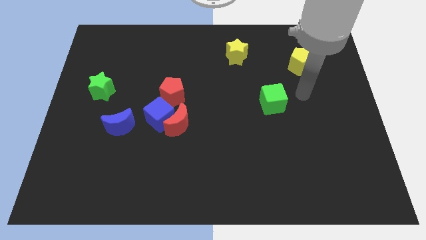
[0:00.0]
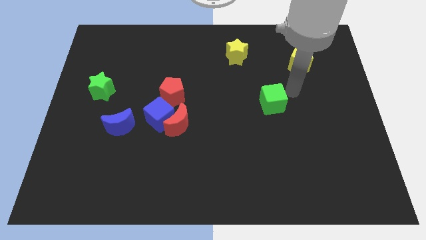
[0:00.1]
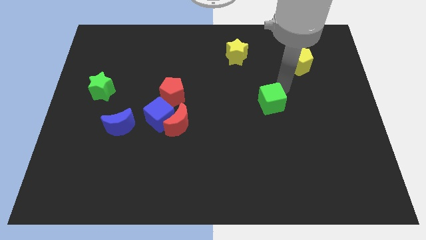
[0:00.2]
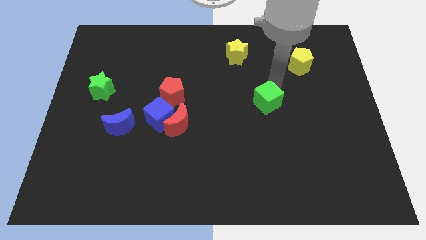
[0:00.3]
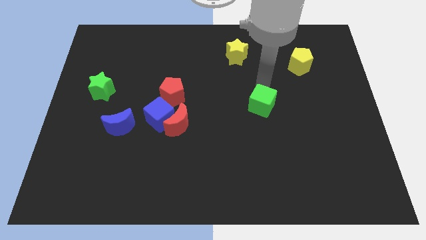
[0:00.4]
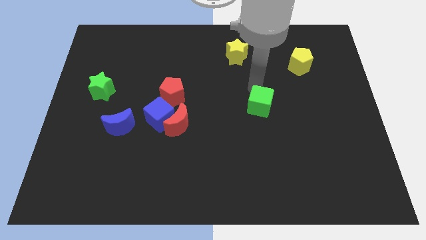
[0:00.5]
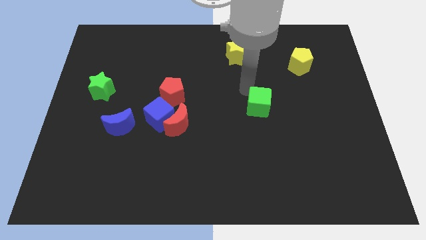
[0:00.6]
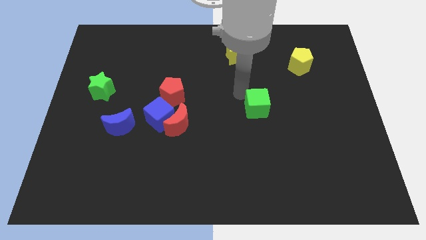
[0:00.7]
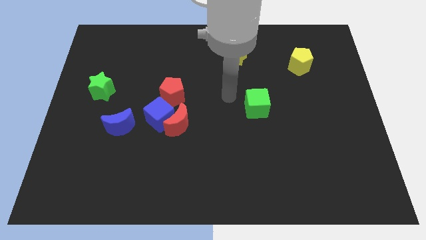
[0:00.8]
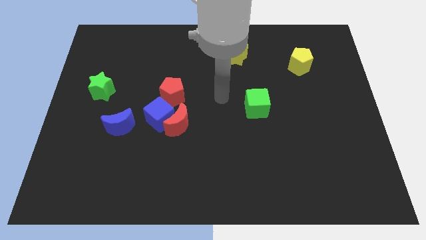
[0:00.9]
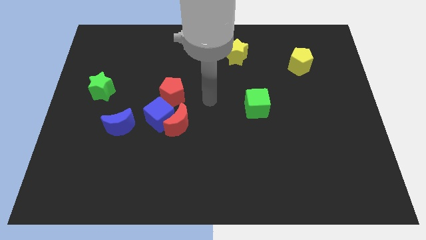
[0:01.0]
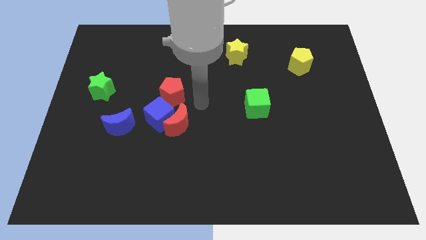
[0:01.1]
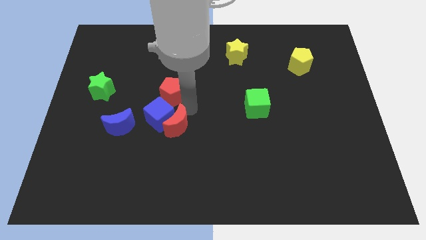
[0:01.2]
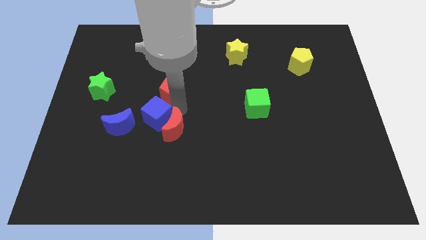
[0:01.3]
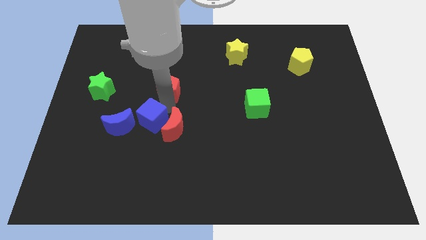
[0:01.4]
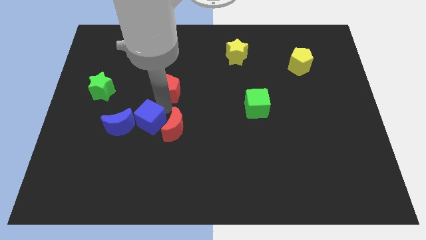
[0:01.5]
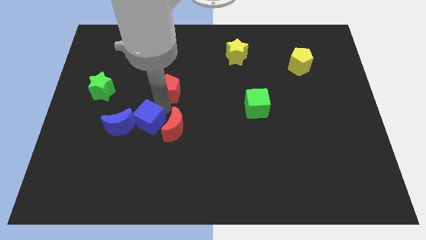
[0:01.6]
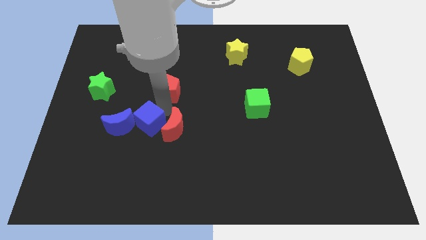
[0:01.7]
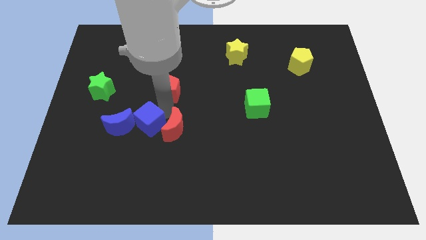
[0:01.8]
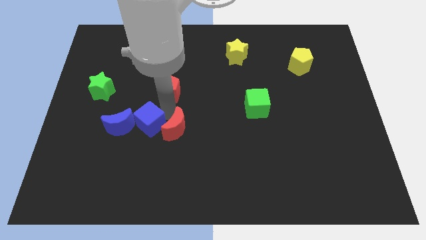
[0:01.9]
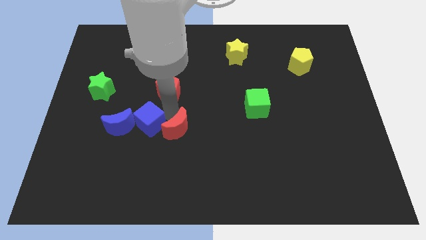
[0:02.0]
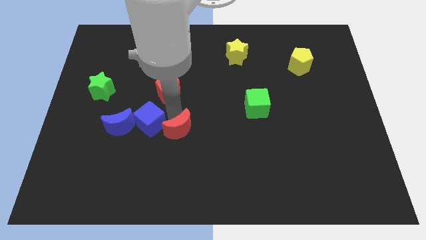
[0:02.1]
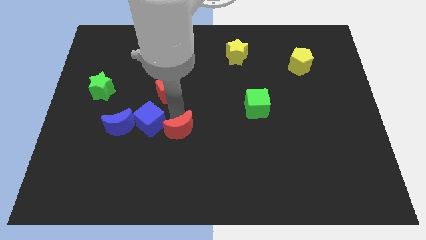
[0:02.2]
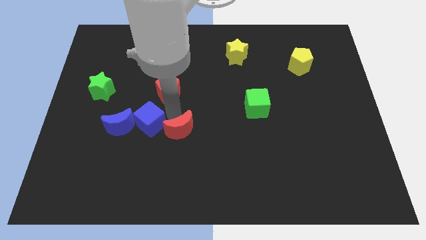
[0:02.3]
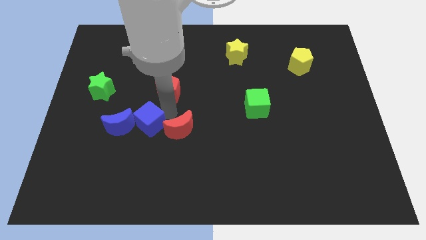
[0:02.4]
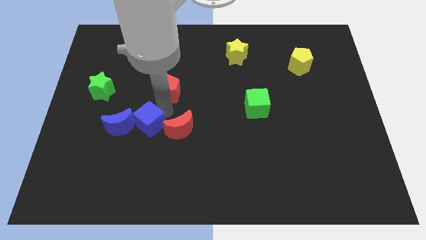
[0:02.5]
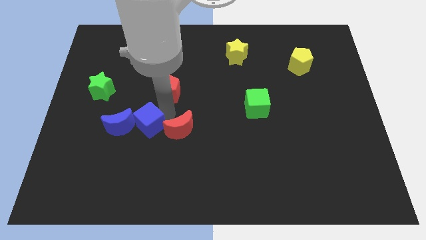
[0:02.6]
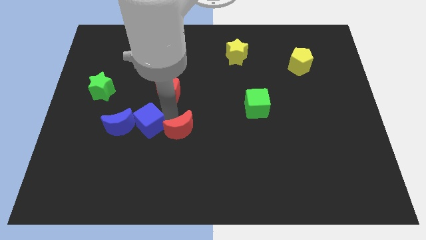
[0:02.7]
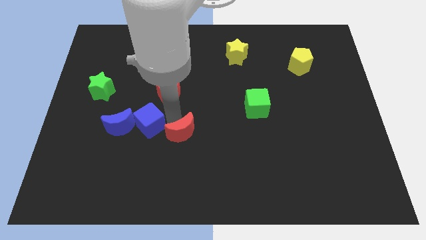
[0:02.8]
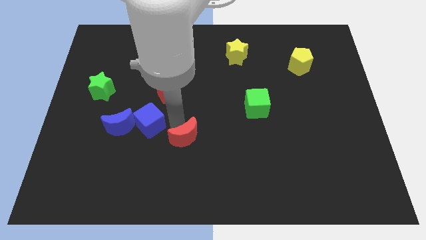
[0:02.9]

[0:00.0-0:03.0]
separate the red moon from the blue cube and red pentagon

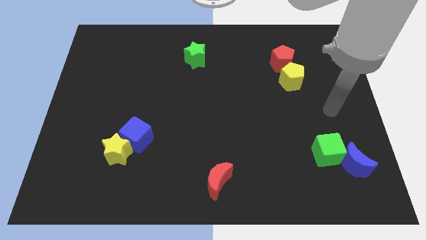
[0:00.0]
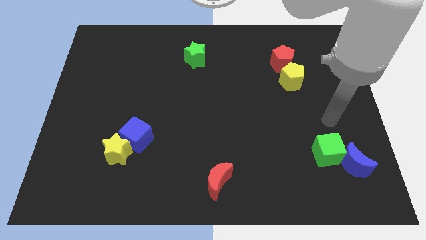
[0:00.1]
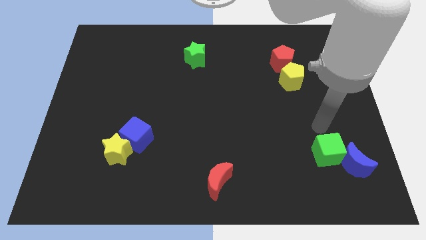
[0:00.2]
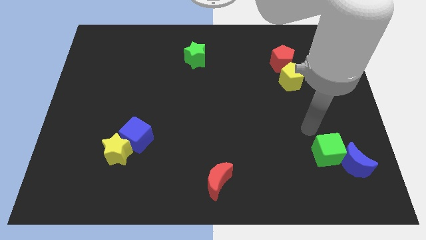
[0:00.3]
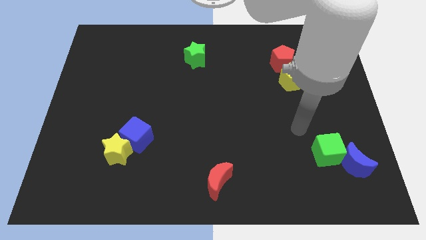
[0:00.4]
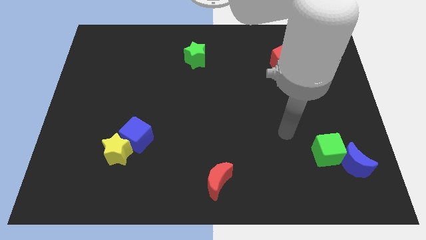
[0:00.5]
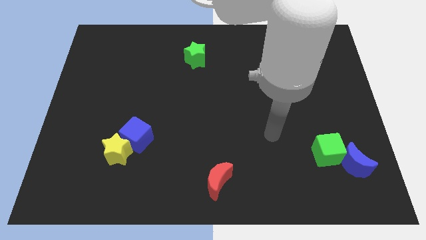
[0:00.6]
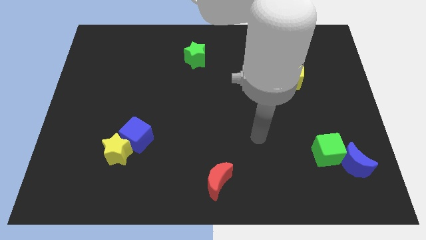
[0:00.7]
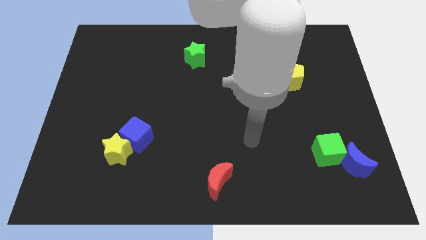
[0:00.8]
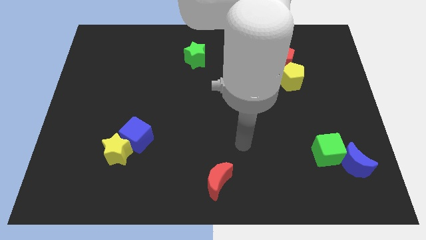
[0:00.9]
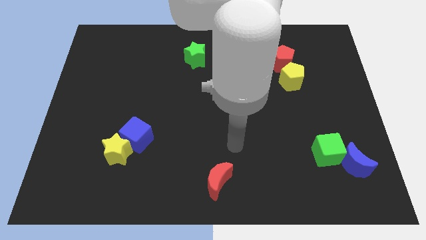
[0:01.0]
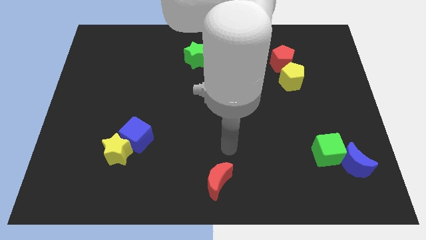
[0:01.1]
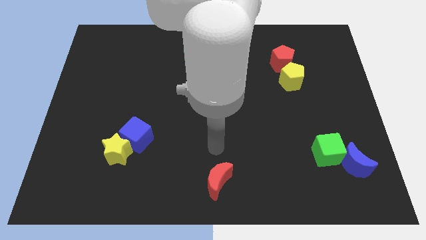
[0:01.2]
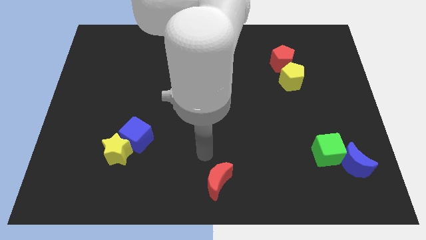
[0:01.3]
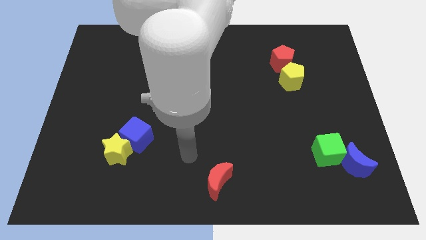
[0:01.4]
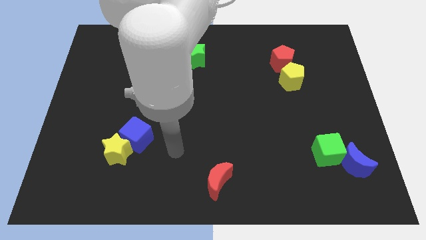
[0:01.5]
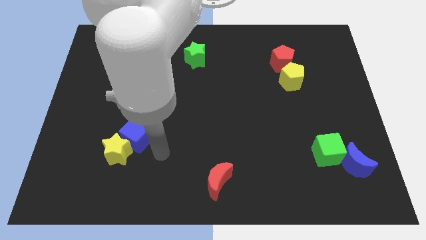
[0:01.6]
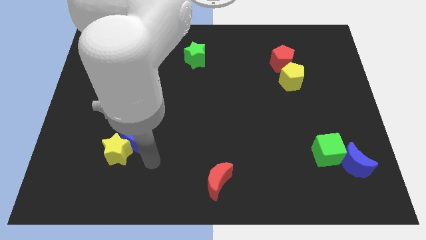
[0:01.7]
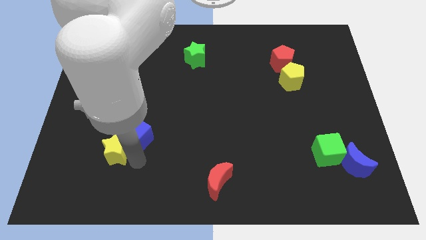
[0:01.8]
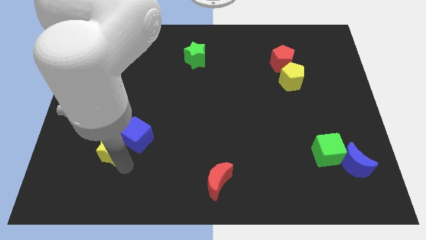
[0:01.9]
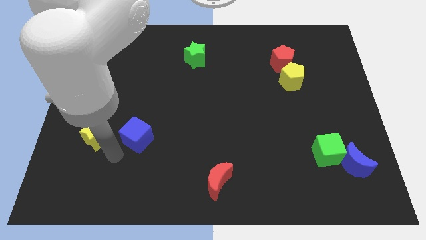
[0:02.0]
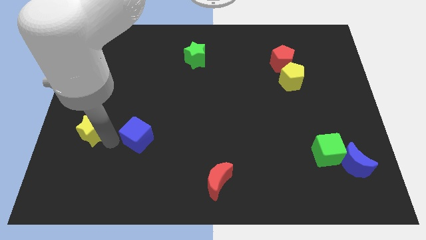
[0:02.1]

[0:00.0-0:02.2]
move the blue cube away from the yellow star

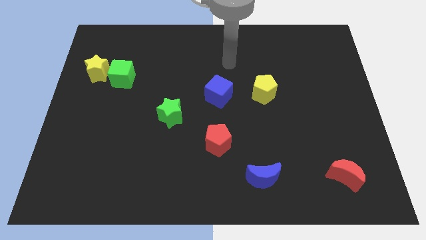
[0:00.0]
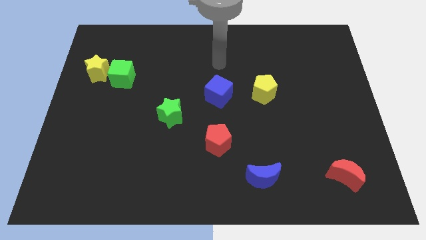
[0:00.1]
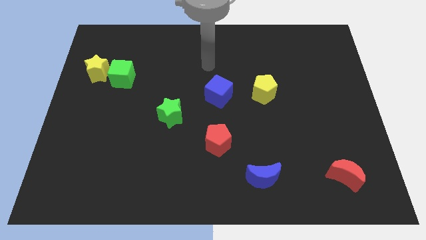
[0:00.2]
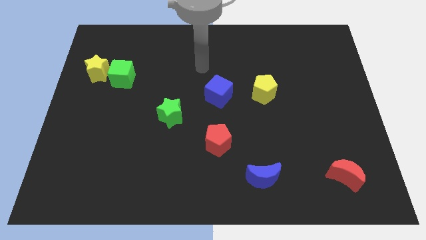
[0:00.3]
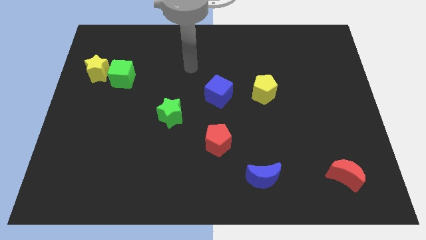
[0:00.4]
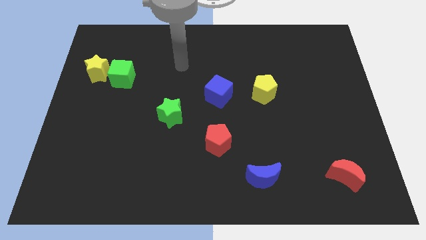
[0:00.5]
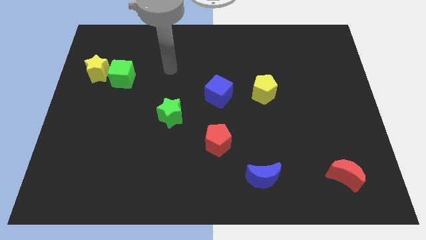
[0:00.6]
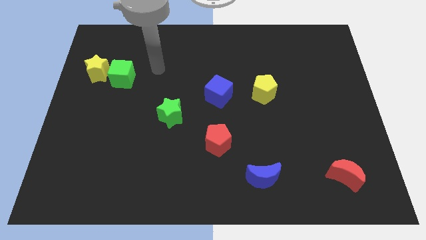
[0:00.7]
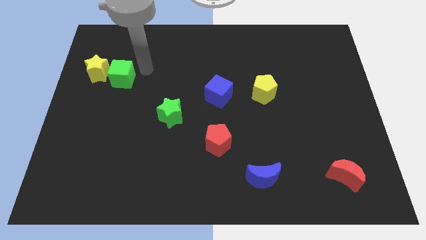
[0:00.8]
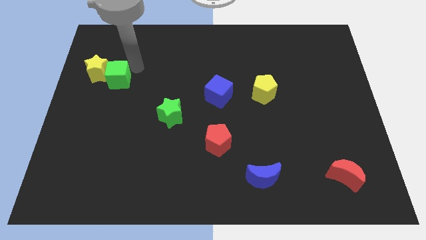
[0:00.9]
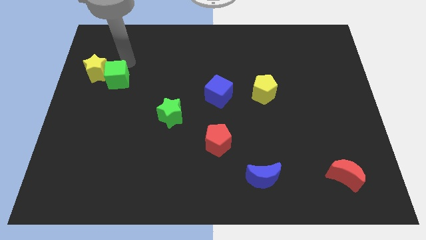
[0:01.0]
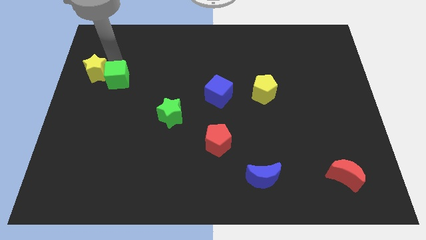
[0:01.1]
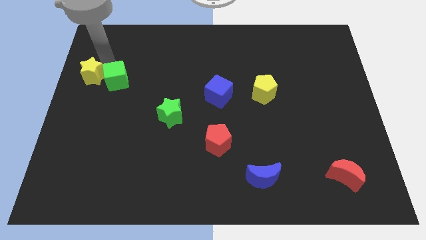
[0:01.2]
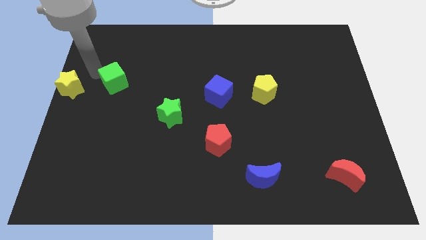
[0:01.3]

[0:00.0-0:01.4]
pull the green cube apart from the yellow star

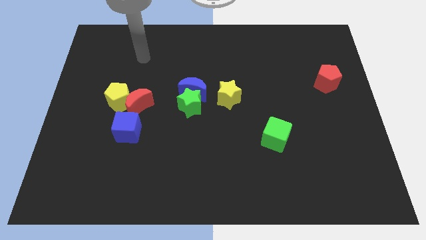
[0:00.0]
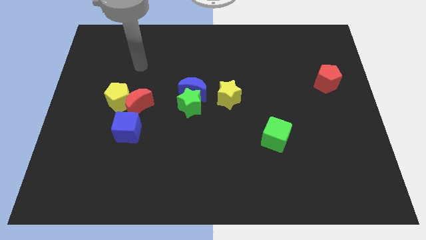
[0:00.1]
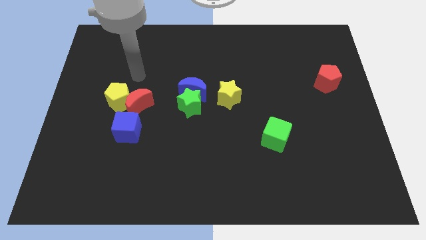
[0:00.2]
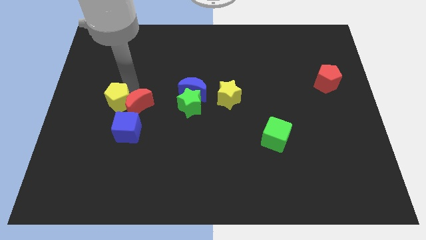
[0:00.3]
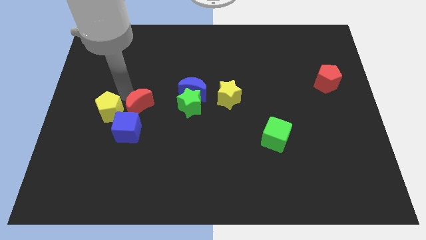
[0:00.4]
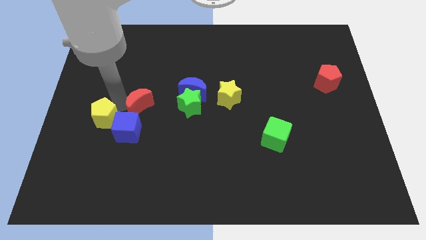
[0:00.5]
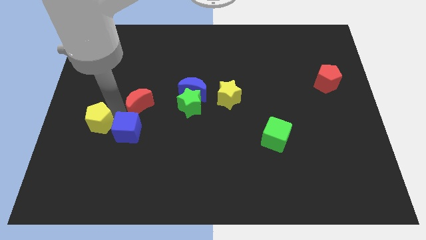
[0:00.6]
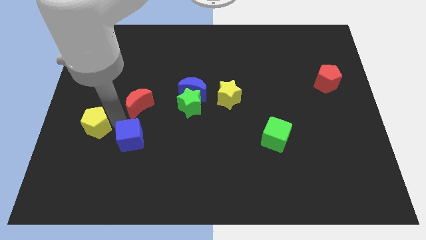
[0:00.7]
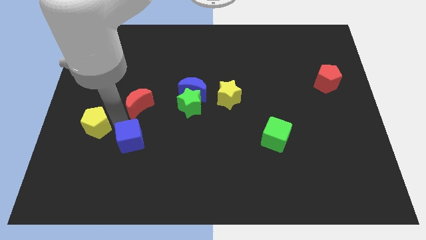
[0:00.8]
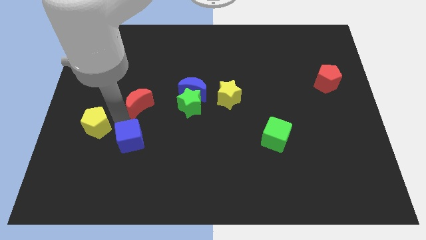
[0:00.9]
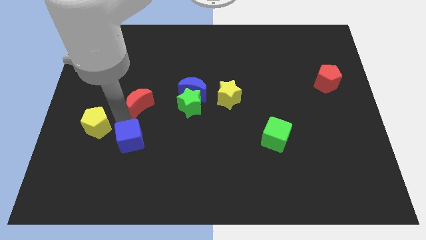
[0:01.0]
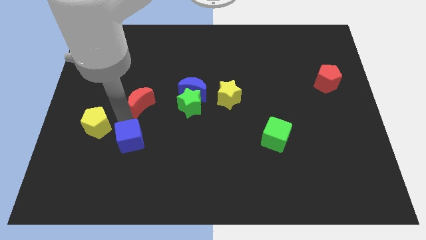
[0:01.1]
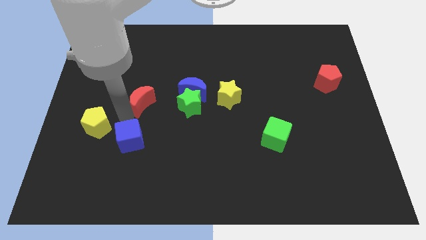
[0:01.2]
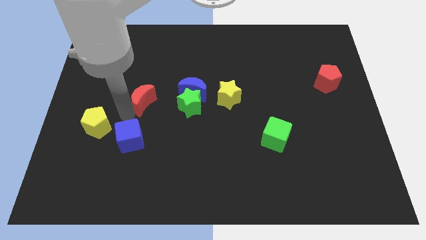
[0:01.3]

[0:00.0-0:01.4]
move the red moon away from the yellow pentagon and blue cube

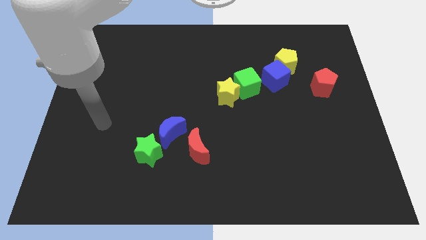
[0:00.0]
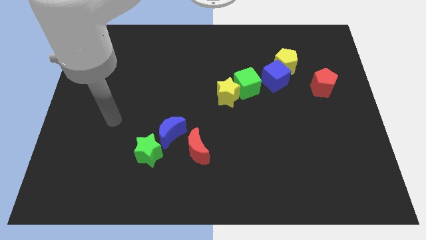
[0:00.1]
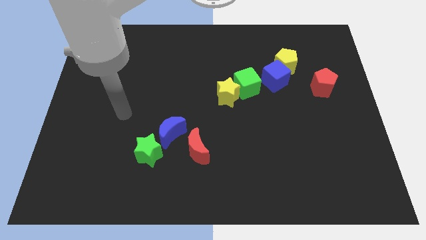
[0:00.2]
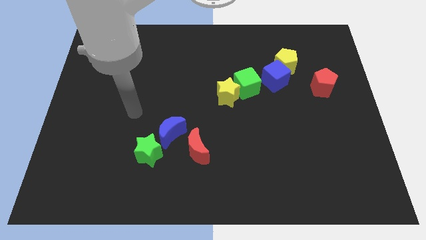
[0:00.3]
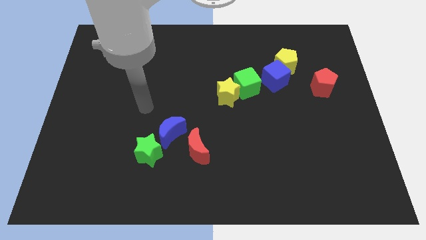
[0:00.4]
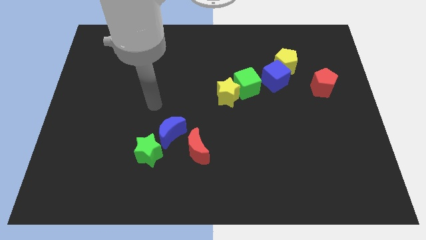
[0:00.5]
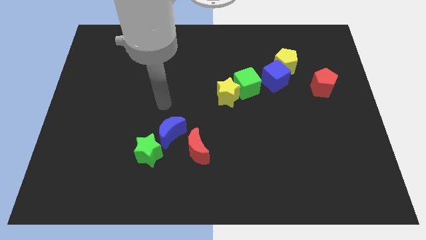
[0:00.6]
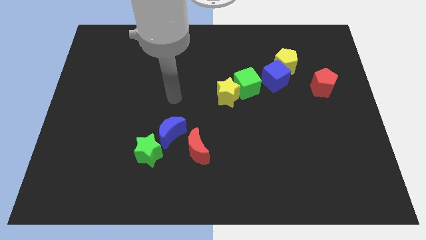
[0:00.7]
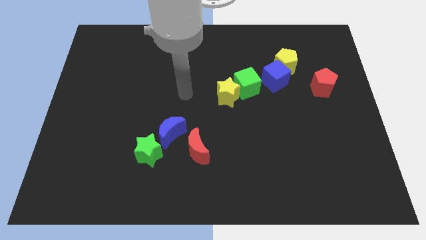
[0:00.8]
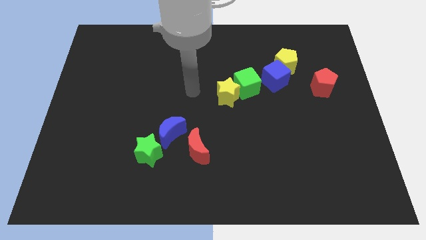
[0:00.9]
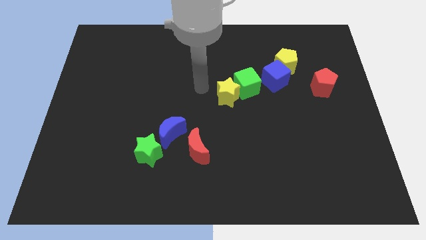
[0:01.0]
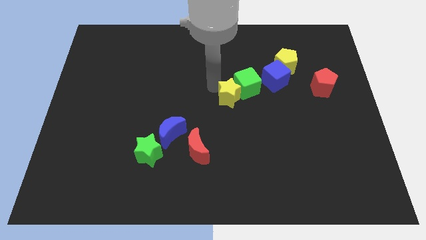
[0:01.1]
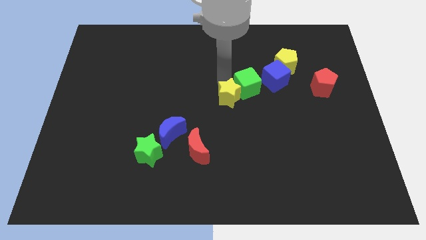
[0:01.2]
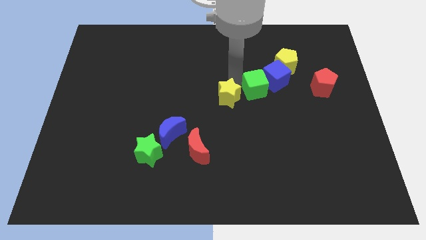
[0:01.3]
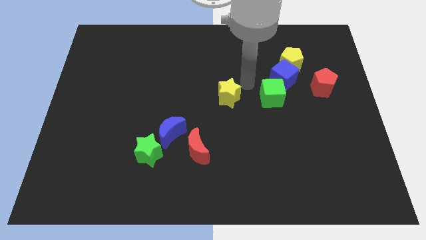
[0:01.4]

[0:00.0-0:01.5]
separate the yellow star from the green cube
